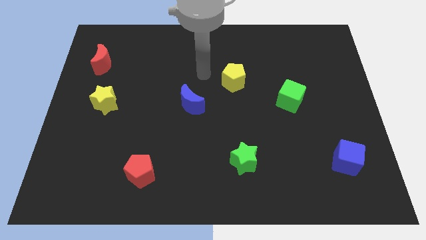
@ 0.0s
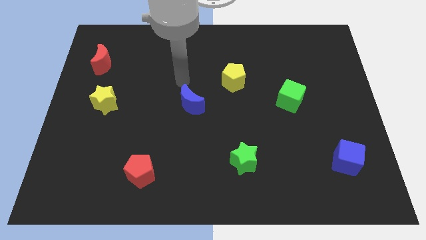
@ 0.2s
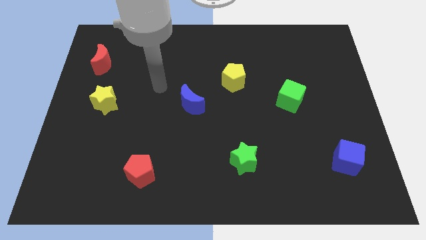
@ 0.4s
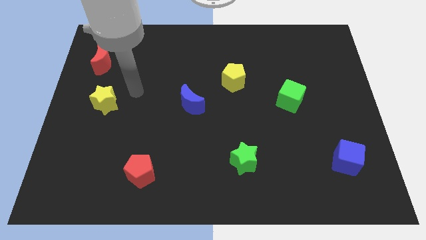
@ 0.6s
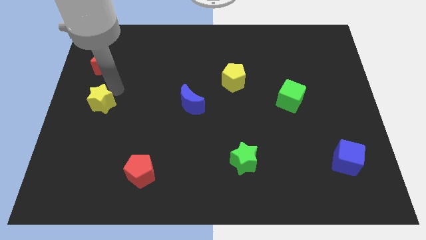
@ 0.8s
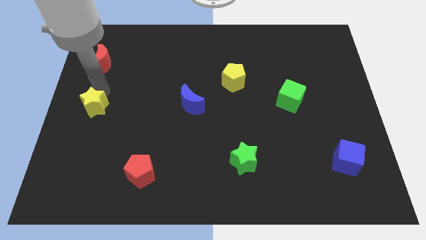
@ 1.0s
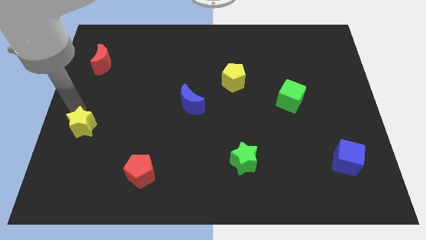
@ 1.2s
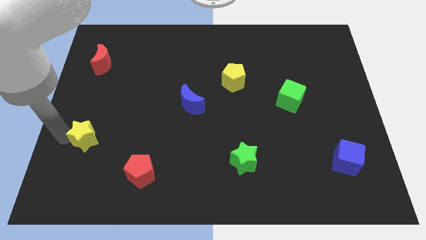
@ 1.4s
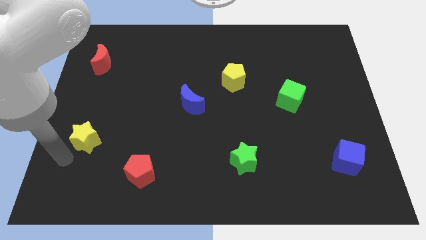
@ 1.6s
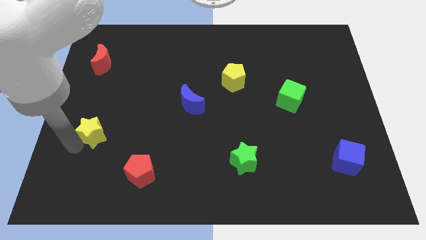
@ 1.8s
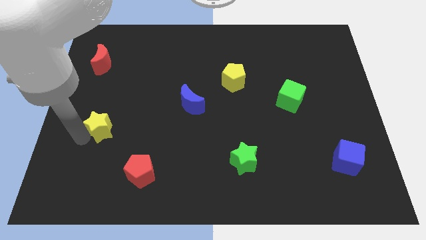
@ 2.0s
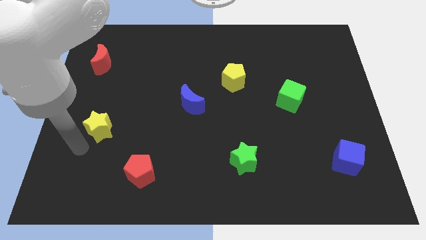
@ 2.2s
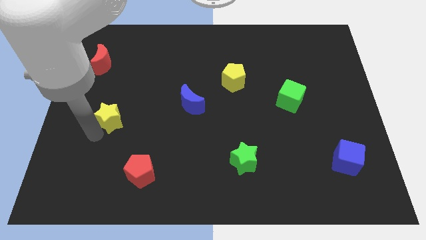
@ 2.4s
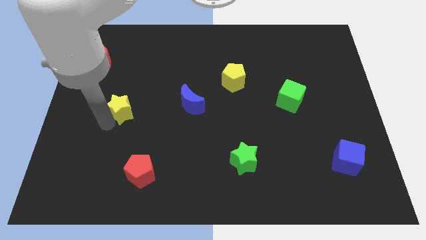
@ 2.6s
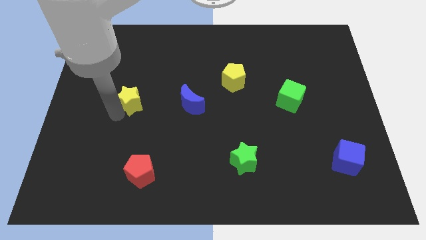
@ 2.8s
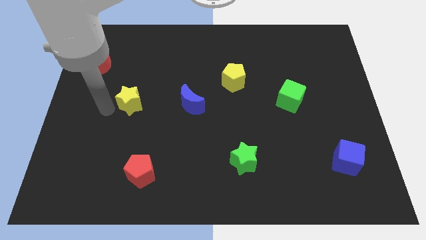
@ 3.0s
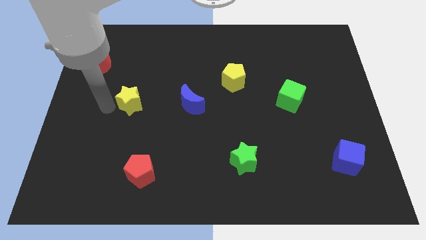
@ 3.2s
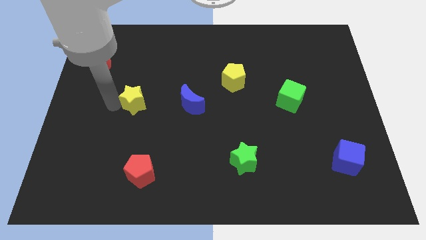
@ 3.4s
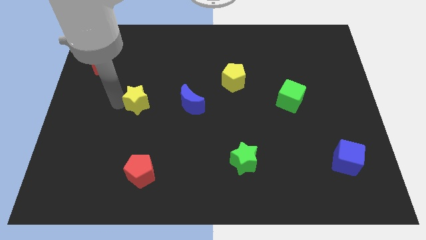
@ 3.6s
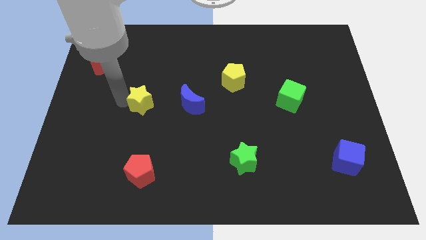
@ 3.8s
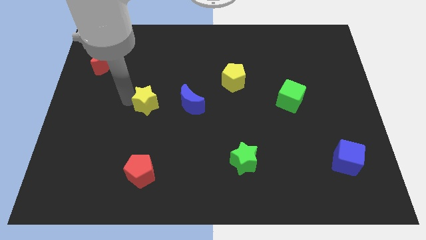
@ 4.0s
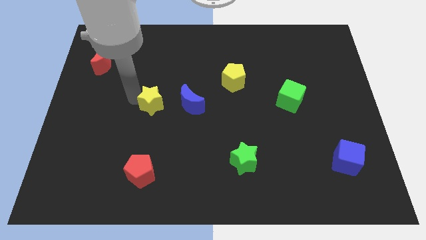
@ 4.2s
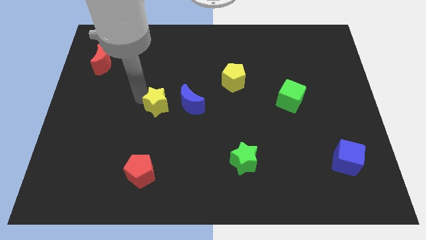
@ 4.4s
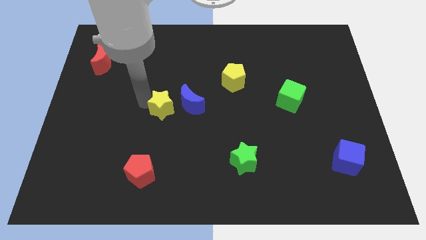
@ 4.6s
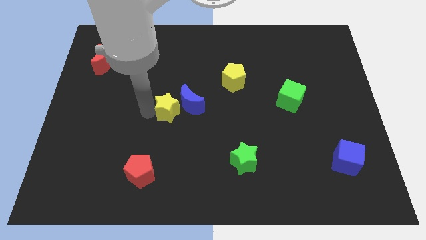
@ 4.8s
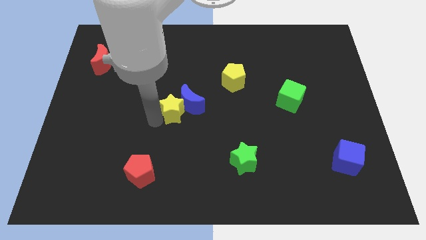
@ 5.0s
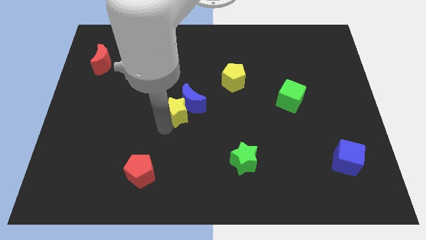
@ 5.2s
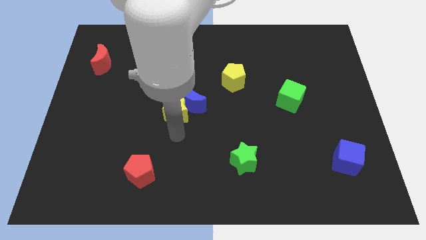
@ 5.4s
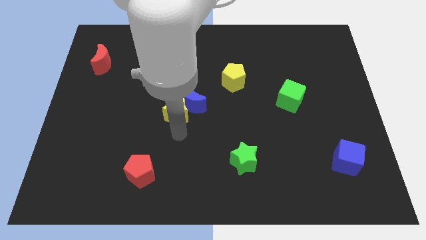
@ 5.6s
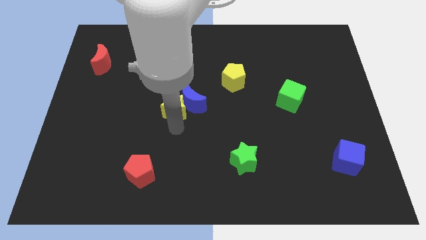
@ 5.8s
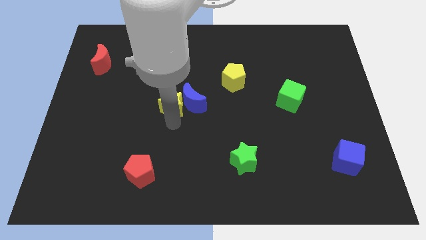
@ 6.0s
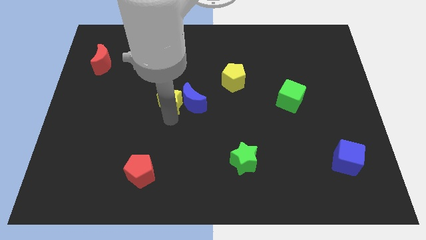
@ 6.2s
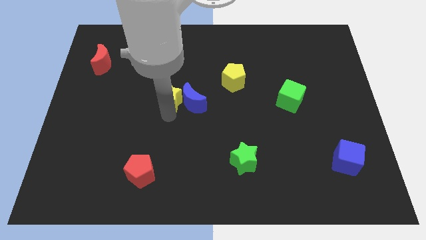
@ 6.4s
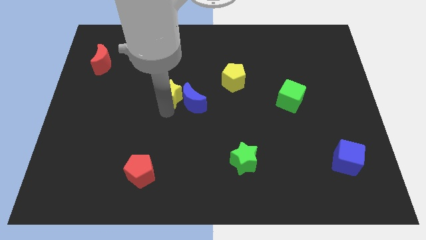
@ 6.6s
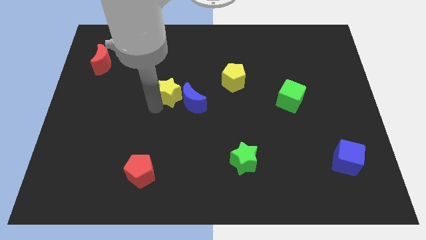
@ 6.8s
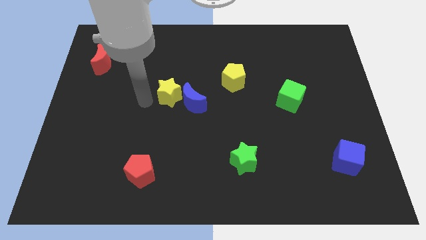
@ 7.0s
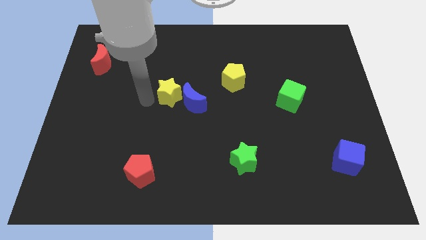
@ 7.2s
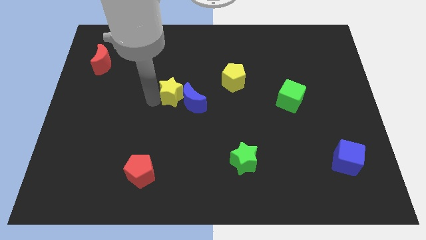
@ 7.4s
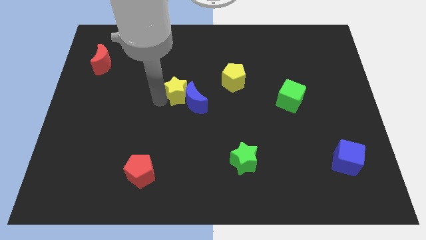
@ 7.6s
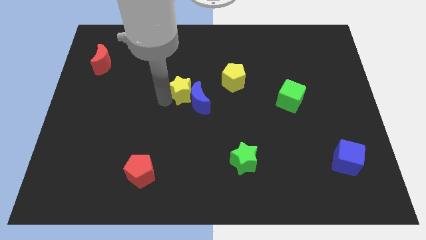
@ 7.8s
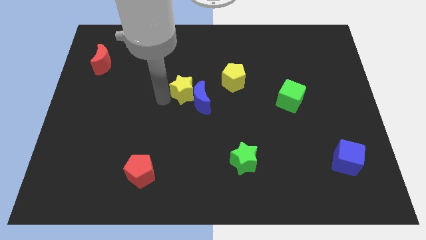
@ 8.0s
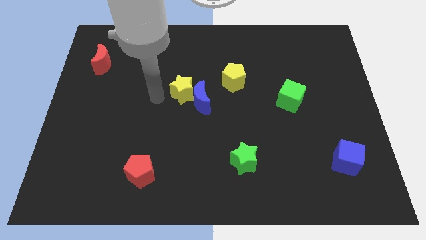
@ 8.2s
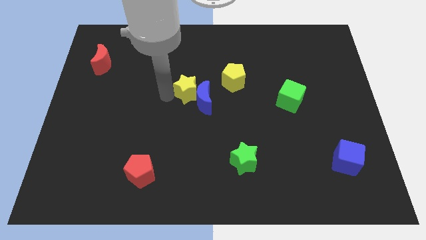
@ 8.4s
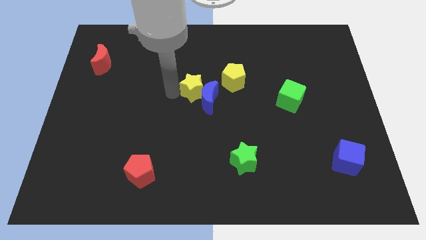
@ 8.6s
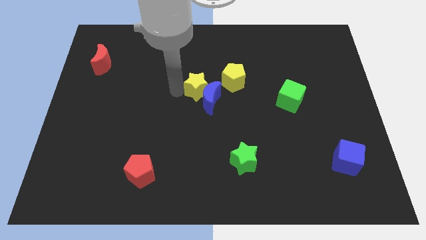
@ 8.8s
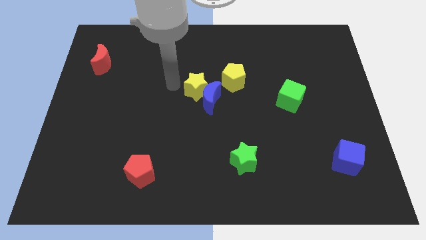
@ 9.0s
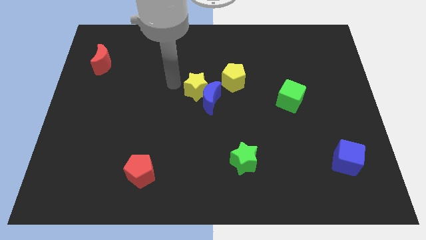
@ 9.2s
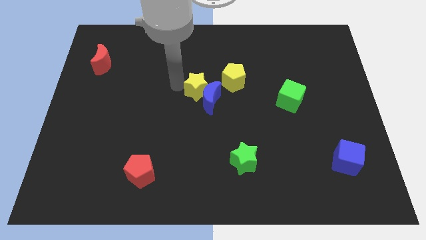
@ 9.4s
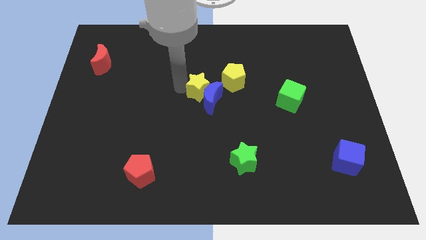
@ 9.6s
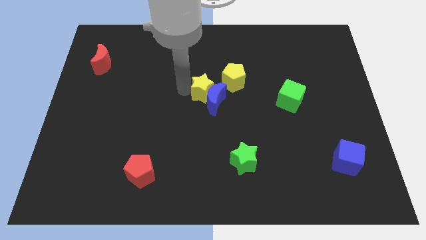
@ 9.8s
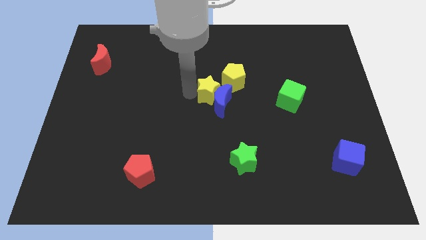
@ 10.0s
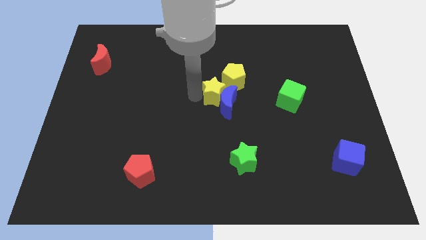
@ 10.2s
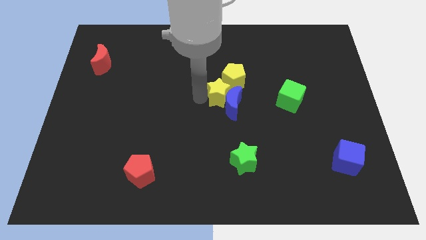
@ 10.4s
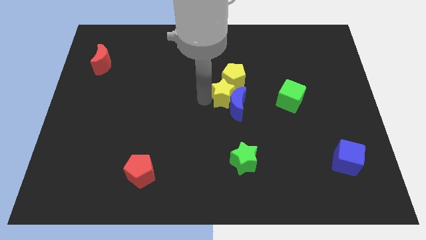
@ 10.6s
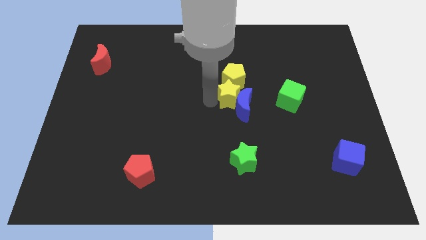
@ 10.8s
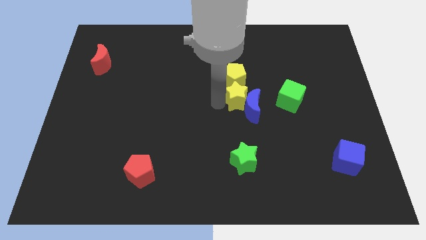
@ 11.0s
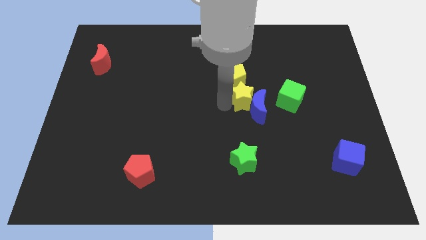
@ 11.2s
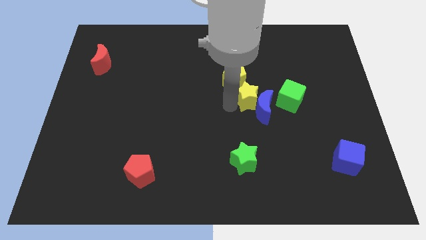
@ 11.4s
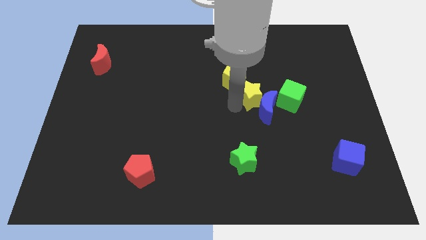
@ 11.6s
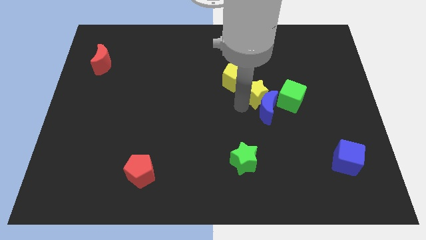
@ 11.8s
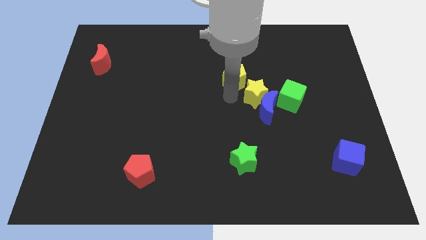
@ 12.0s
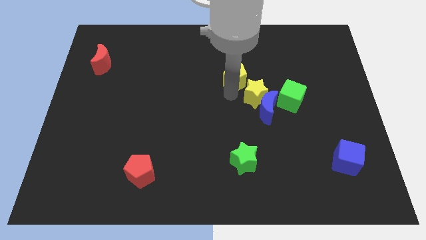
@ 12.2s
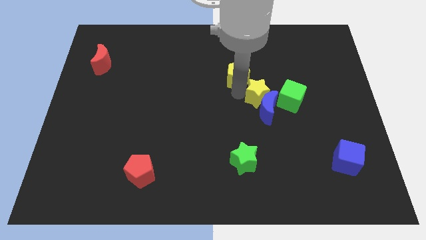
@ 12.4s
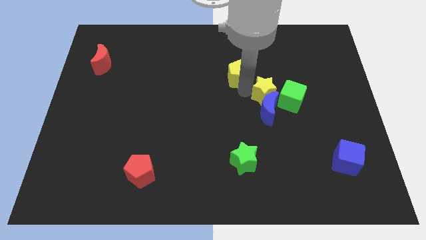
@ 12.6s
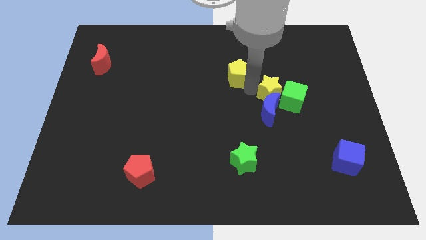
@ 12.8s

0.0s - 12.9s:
slide the yellow star to the green cube
